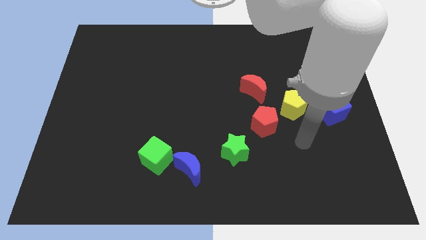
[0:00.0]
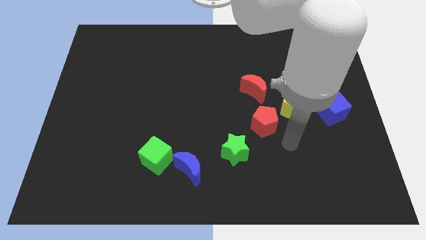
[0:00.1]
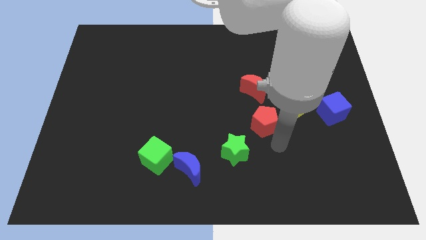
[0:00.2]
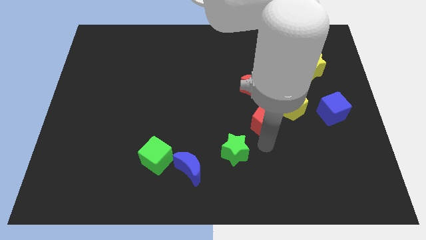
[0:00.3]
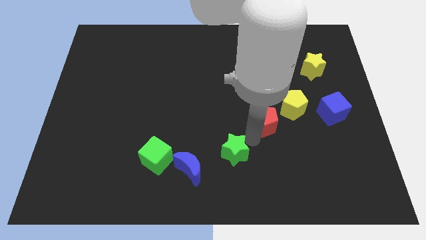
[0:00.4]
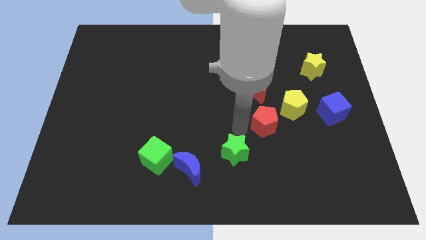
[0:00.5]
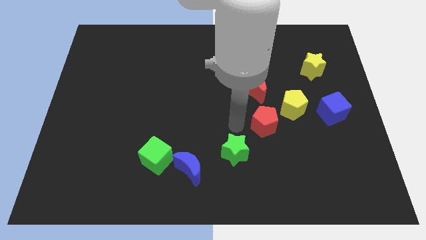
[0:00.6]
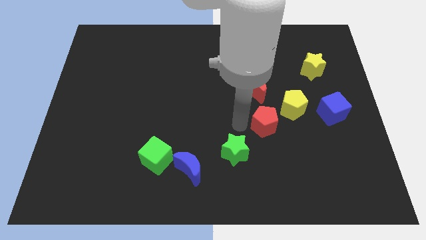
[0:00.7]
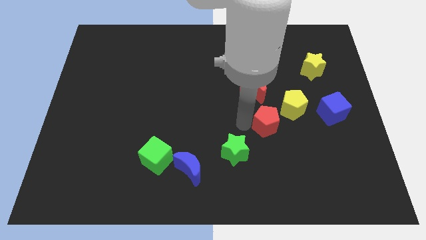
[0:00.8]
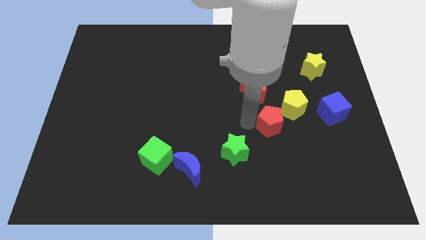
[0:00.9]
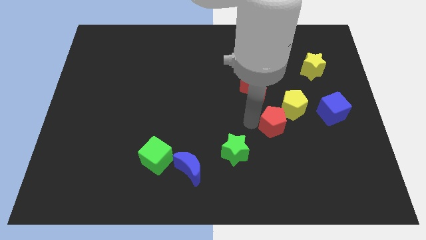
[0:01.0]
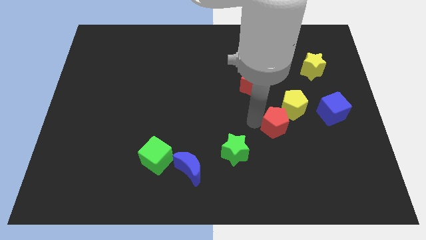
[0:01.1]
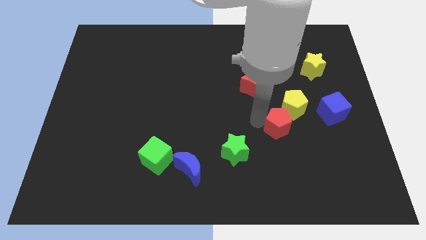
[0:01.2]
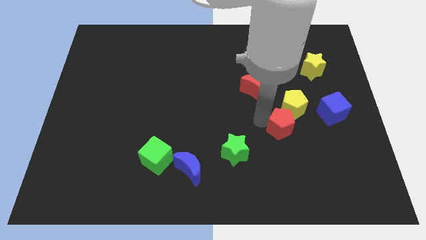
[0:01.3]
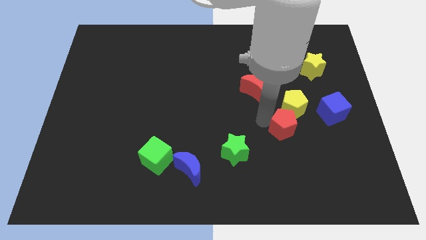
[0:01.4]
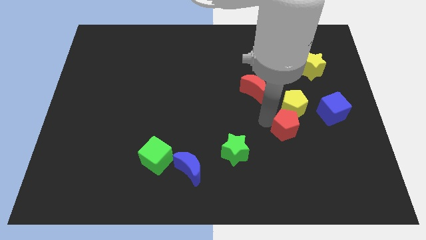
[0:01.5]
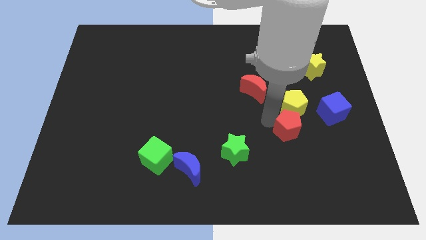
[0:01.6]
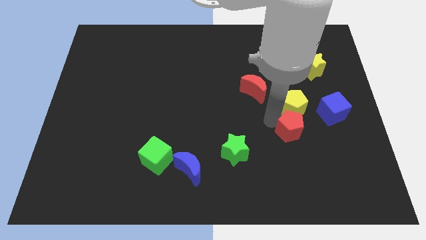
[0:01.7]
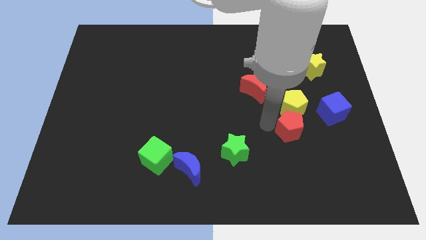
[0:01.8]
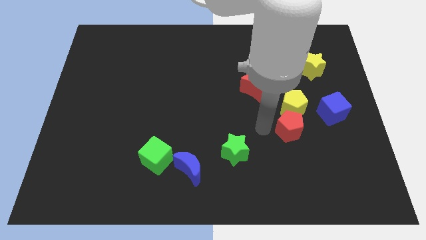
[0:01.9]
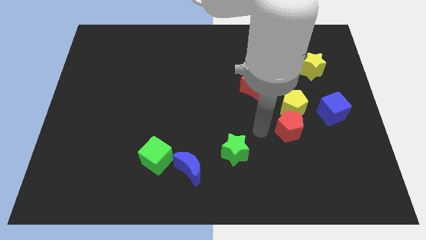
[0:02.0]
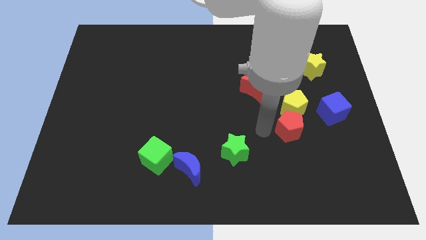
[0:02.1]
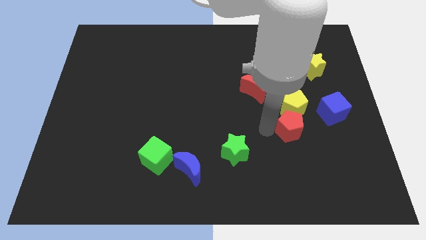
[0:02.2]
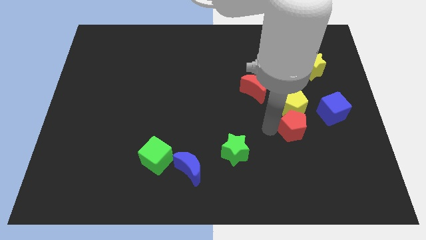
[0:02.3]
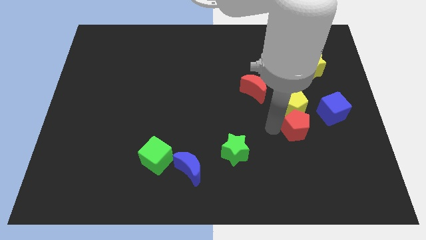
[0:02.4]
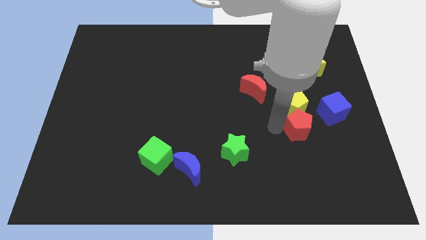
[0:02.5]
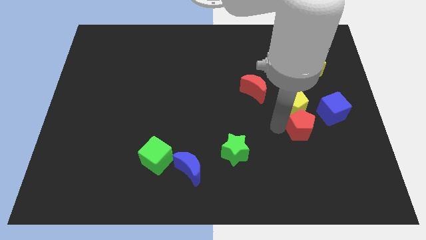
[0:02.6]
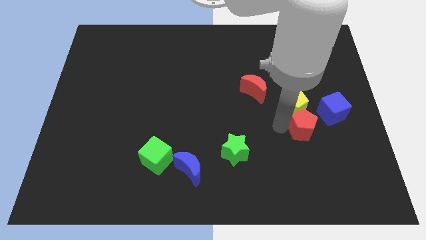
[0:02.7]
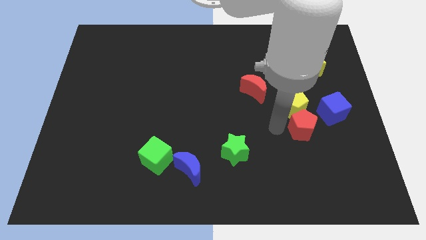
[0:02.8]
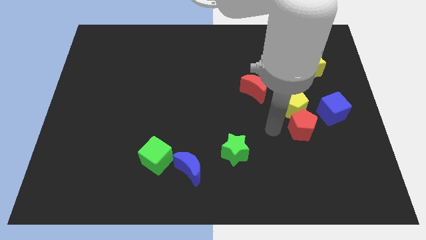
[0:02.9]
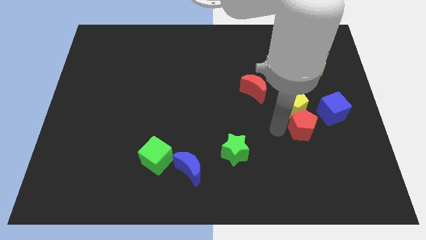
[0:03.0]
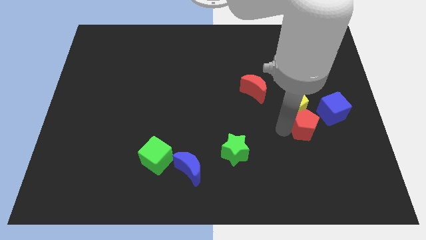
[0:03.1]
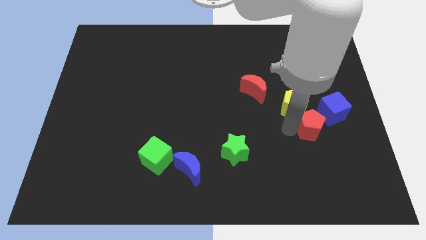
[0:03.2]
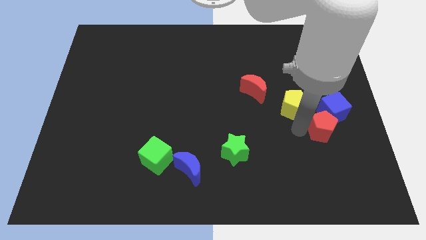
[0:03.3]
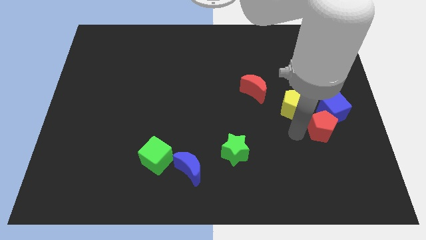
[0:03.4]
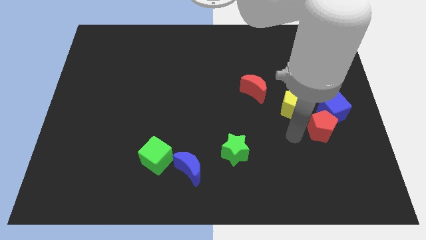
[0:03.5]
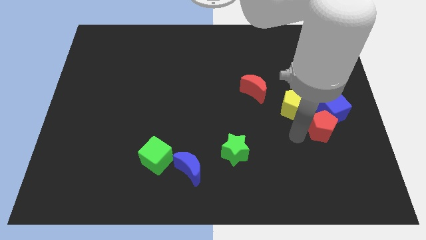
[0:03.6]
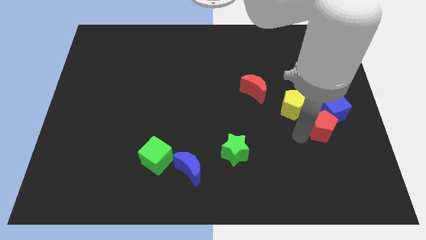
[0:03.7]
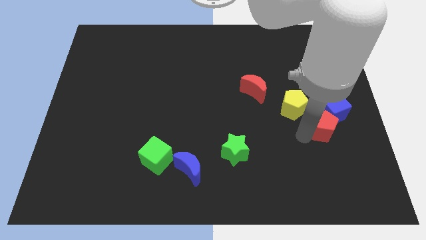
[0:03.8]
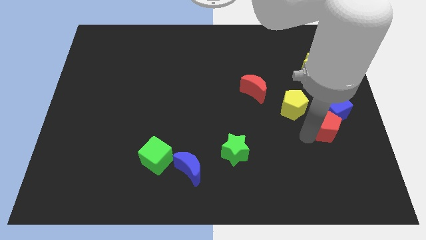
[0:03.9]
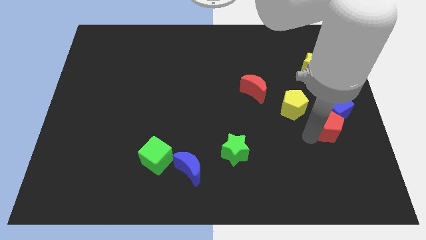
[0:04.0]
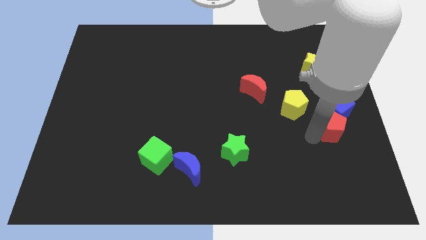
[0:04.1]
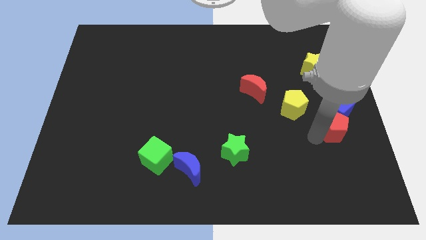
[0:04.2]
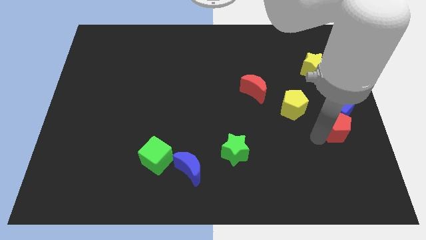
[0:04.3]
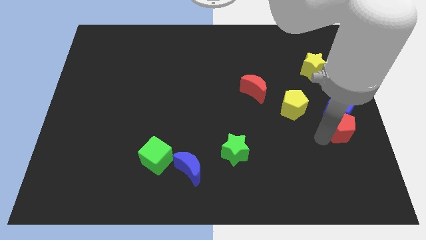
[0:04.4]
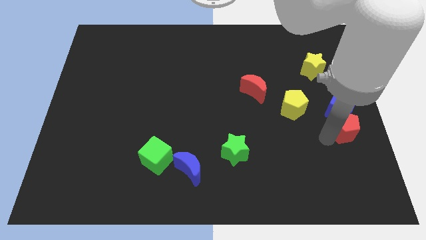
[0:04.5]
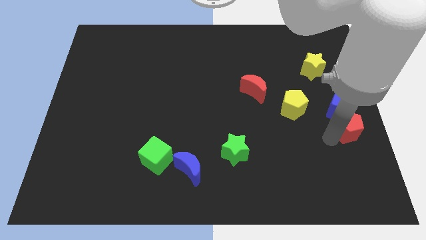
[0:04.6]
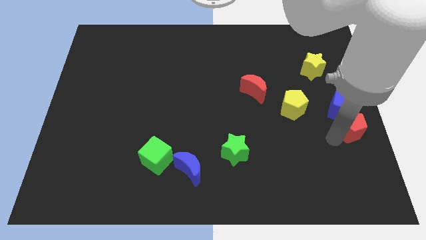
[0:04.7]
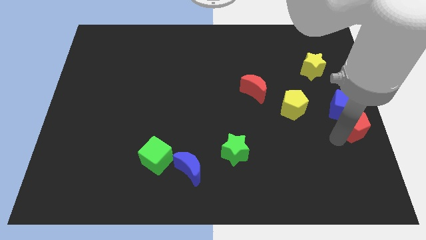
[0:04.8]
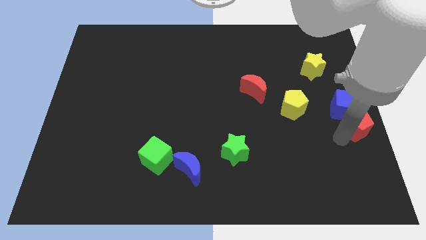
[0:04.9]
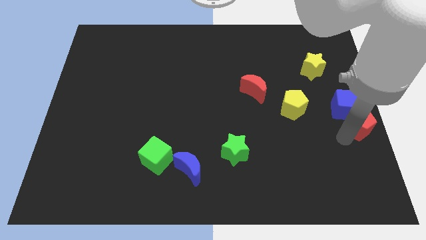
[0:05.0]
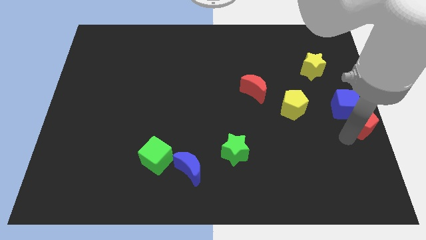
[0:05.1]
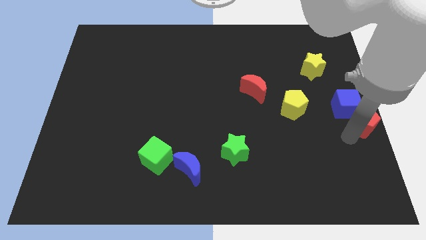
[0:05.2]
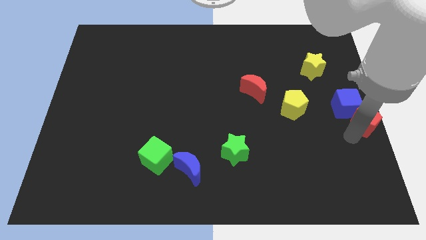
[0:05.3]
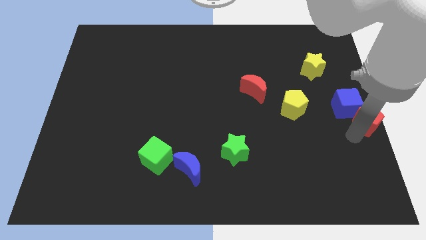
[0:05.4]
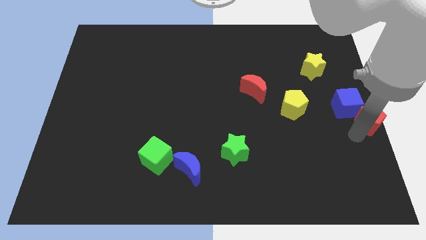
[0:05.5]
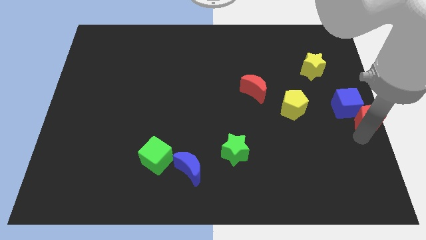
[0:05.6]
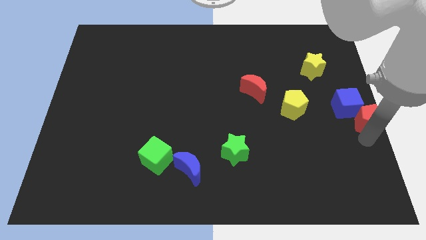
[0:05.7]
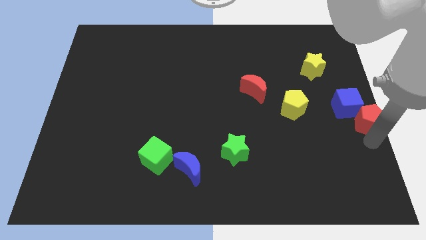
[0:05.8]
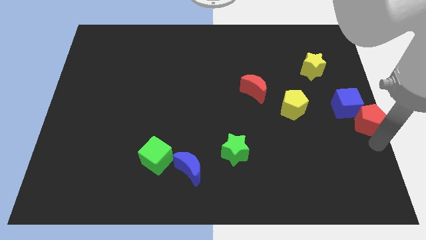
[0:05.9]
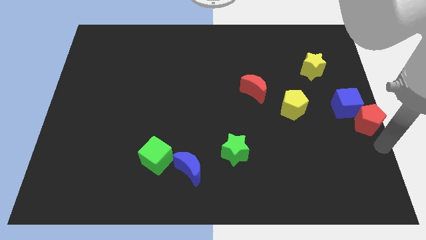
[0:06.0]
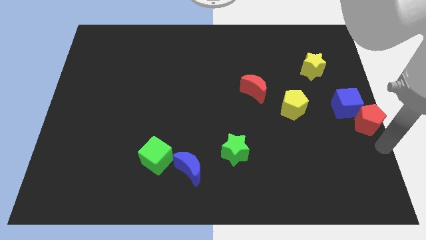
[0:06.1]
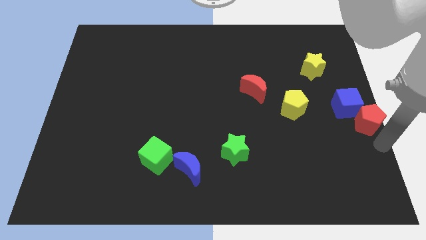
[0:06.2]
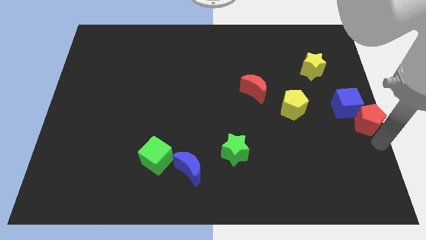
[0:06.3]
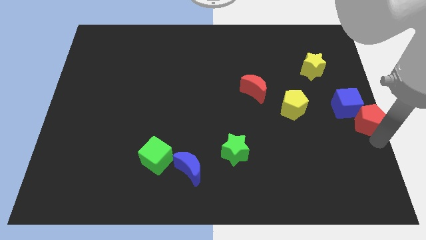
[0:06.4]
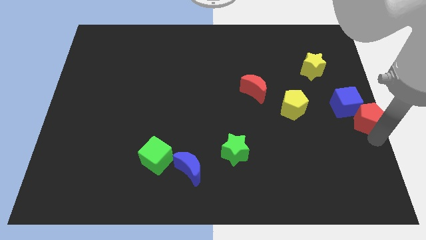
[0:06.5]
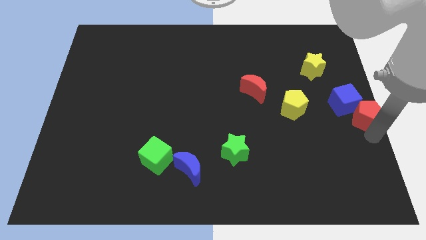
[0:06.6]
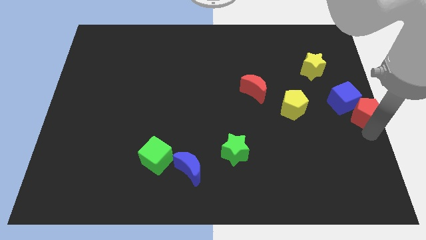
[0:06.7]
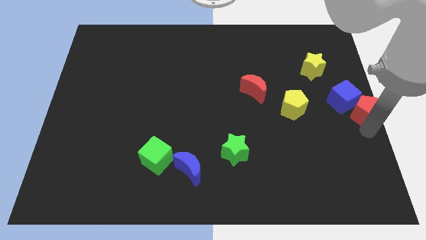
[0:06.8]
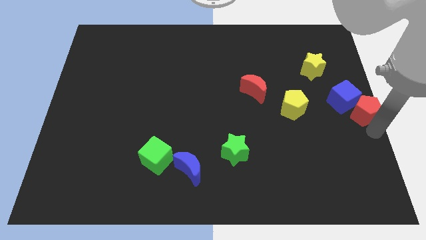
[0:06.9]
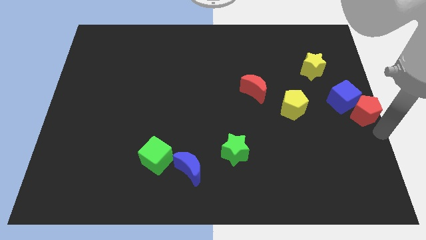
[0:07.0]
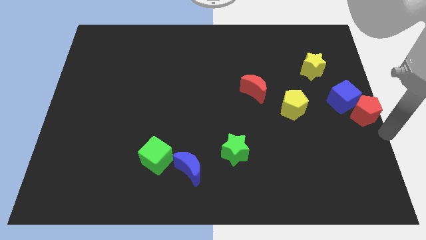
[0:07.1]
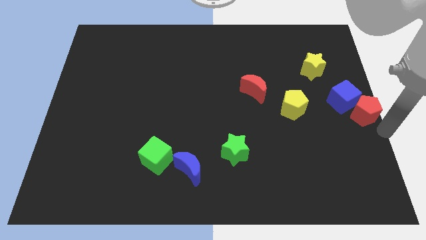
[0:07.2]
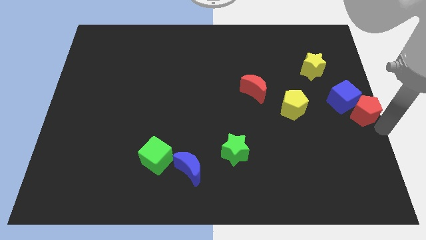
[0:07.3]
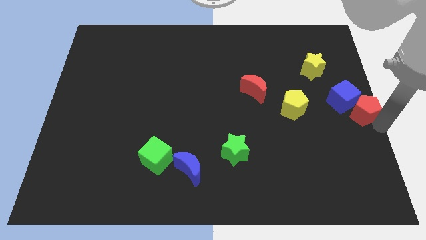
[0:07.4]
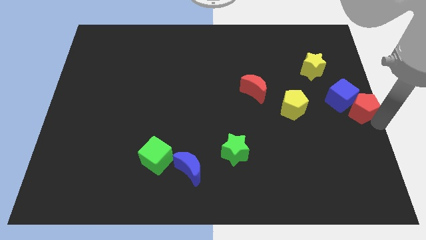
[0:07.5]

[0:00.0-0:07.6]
push the red pentagon just right of the yellow pentagon

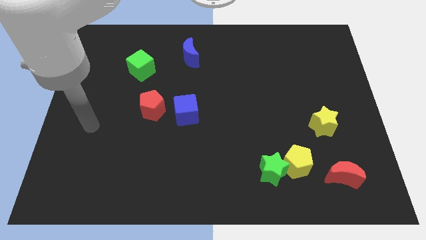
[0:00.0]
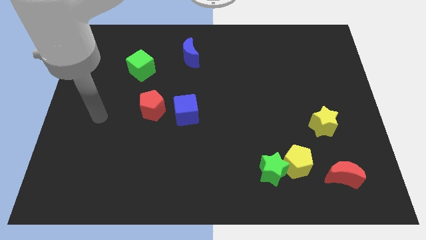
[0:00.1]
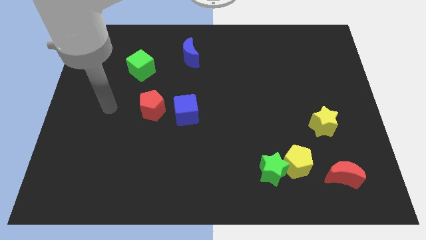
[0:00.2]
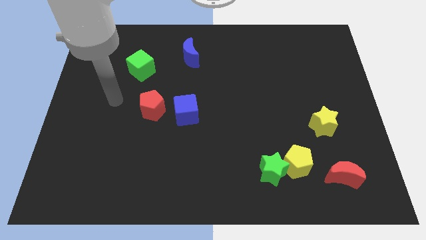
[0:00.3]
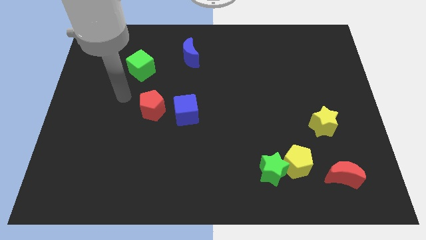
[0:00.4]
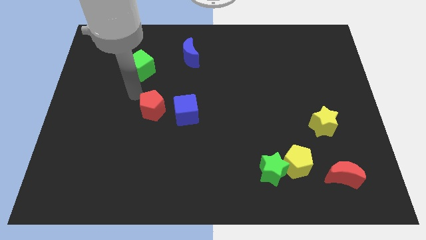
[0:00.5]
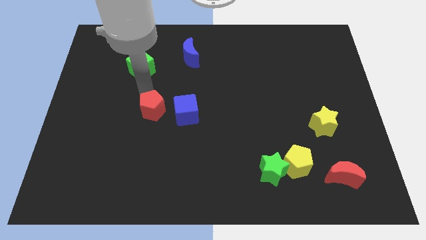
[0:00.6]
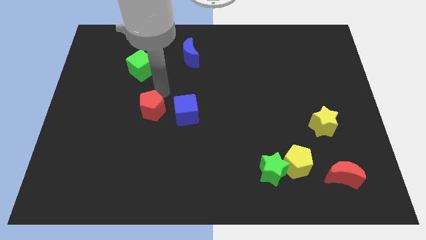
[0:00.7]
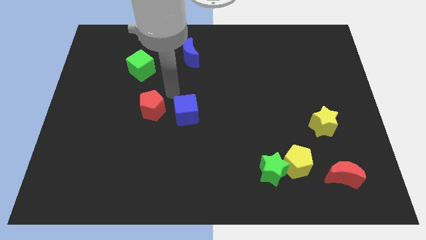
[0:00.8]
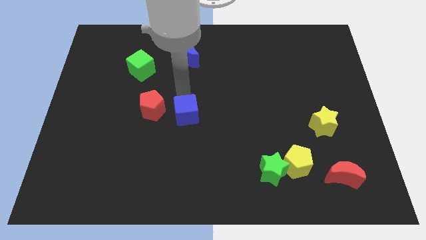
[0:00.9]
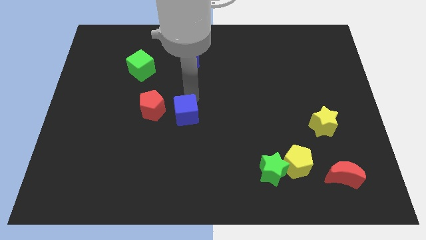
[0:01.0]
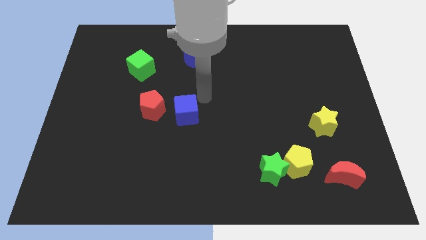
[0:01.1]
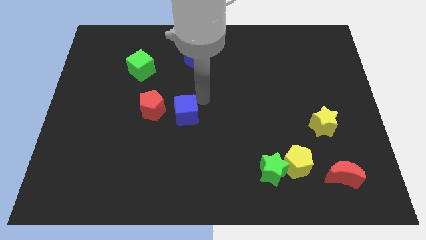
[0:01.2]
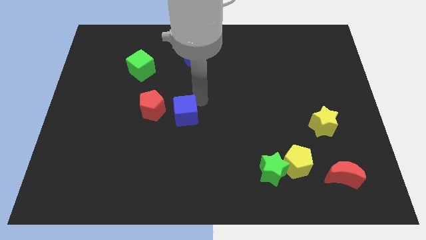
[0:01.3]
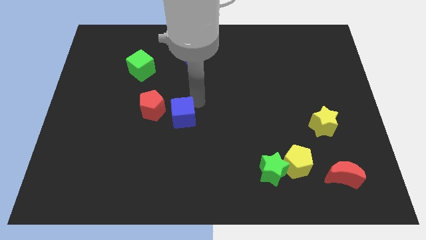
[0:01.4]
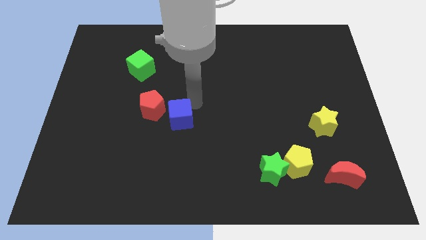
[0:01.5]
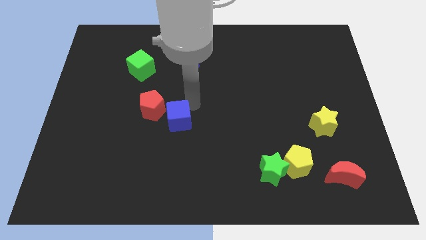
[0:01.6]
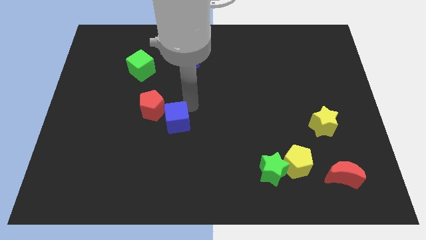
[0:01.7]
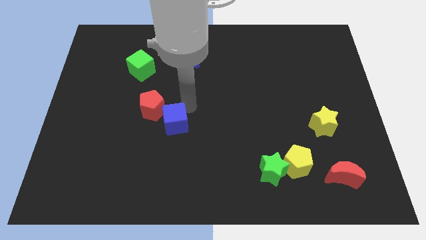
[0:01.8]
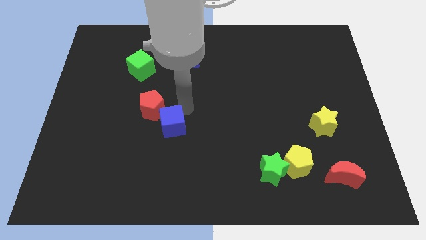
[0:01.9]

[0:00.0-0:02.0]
move the blue cube to the bottom of the red pentagon
